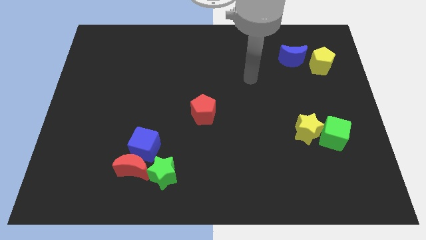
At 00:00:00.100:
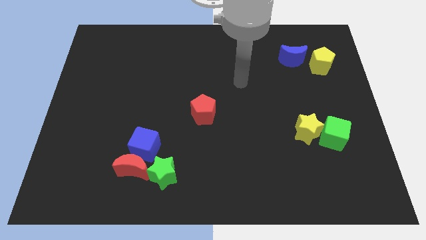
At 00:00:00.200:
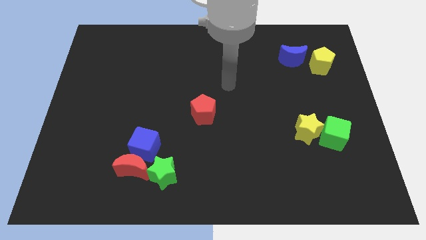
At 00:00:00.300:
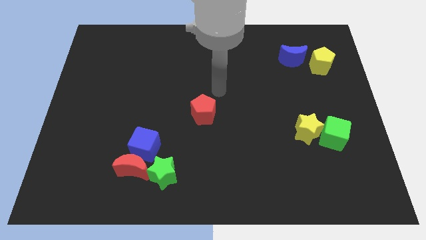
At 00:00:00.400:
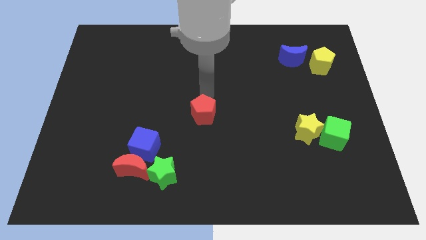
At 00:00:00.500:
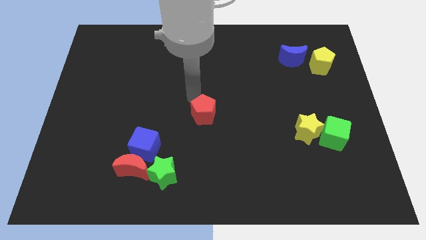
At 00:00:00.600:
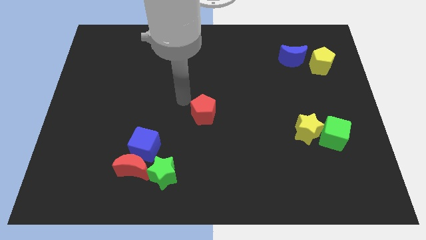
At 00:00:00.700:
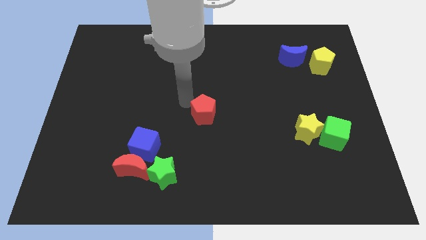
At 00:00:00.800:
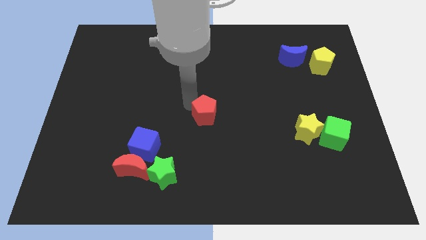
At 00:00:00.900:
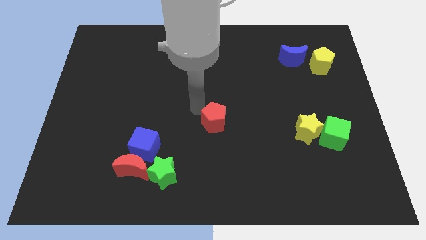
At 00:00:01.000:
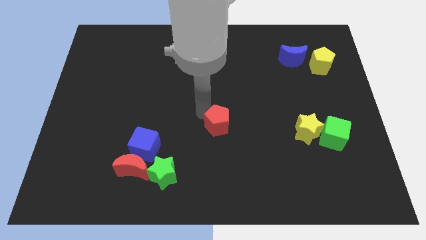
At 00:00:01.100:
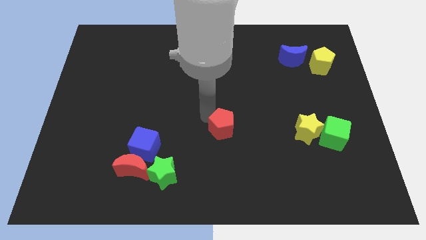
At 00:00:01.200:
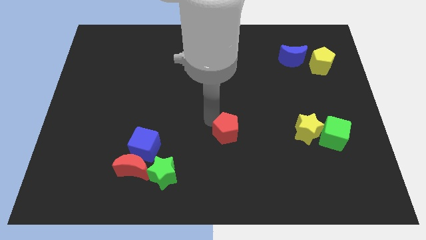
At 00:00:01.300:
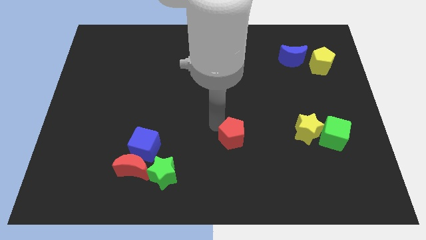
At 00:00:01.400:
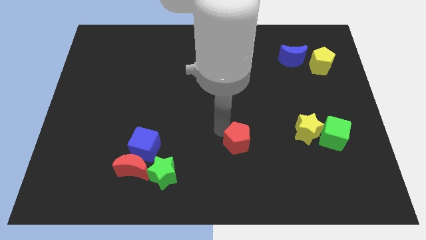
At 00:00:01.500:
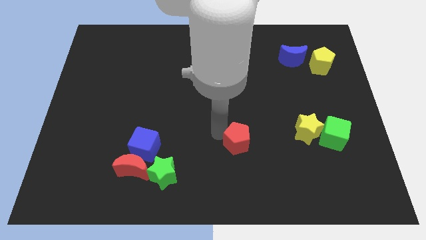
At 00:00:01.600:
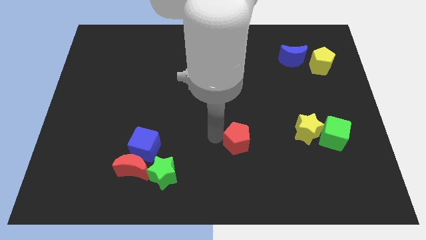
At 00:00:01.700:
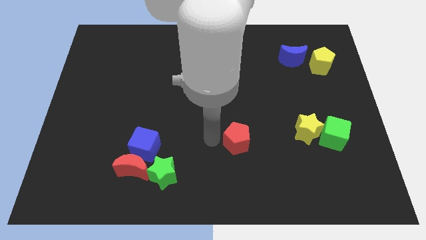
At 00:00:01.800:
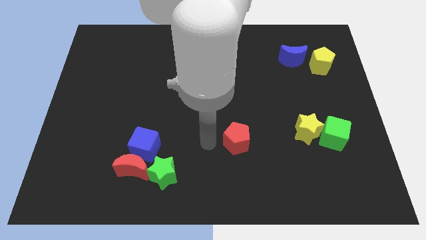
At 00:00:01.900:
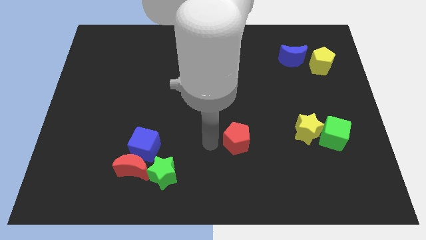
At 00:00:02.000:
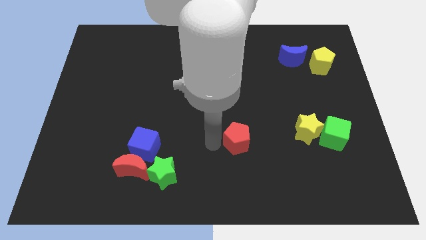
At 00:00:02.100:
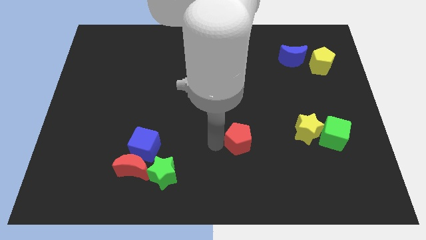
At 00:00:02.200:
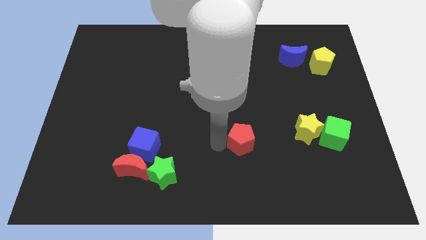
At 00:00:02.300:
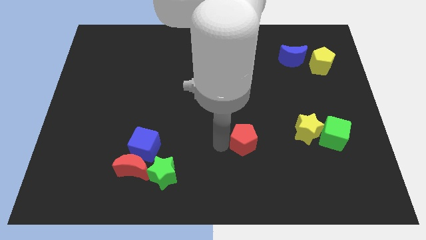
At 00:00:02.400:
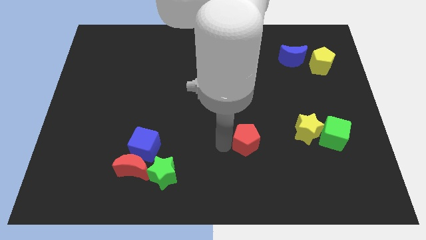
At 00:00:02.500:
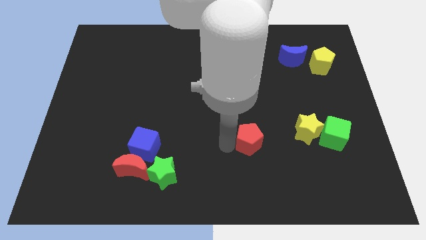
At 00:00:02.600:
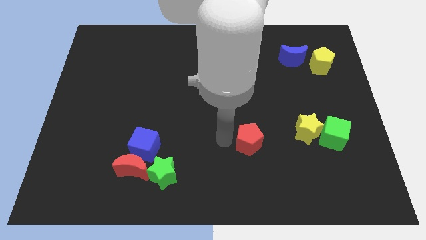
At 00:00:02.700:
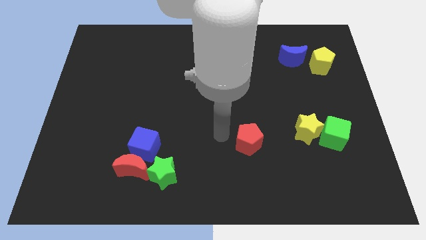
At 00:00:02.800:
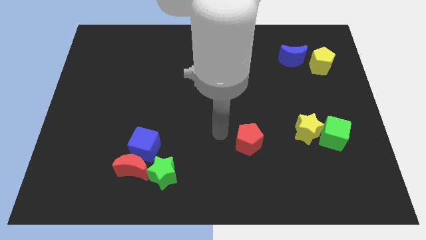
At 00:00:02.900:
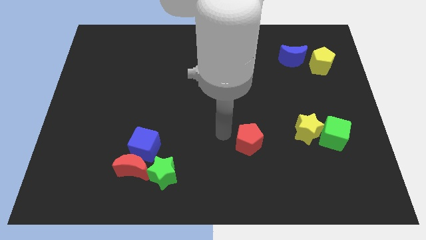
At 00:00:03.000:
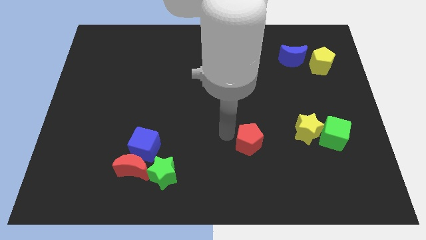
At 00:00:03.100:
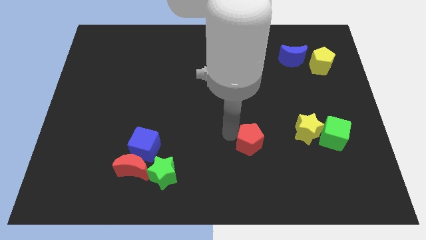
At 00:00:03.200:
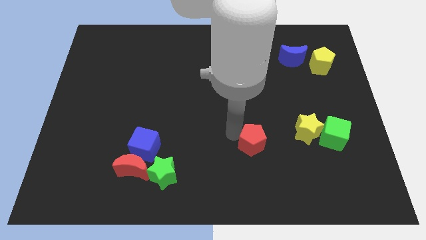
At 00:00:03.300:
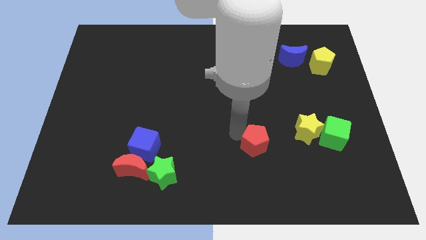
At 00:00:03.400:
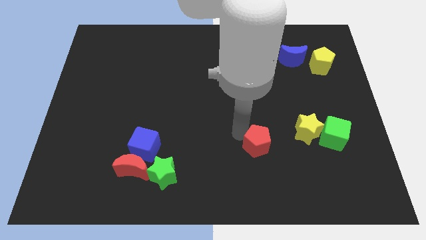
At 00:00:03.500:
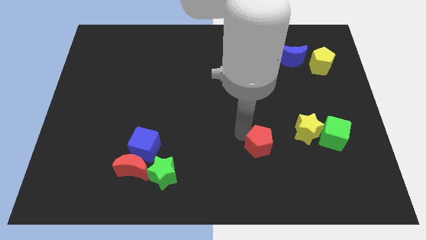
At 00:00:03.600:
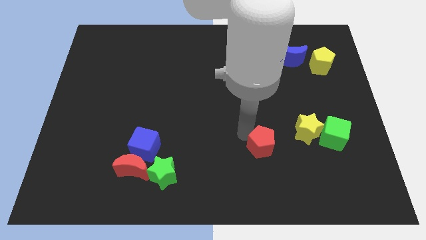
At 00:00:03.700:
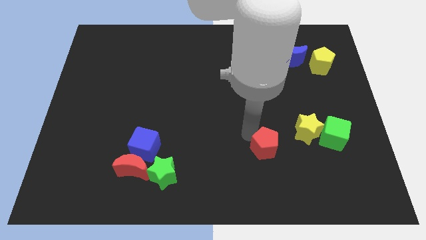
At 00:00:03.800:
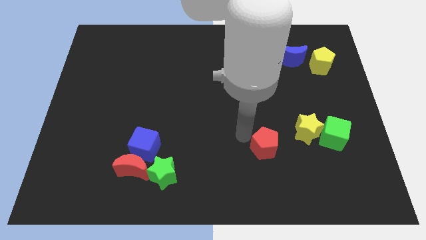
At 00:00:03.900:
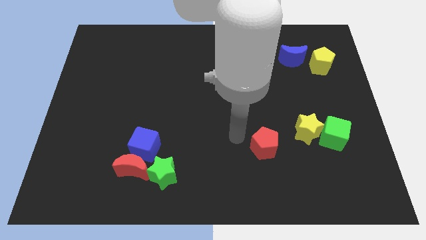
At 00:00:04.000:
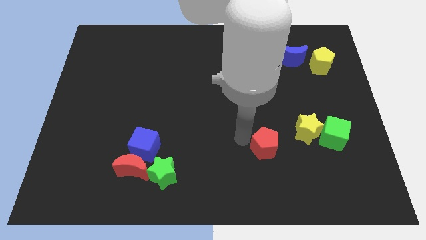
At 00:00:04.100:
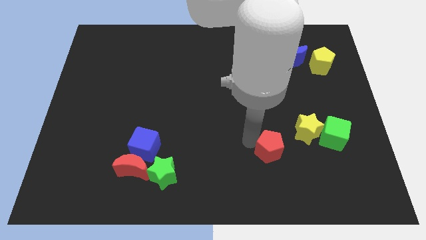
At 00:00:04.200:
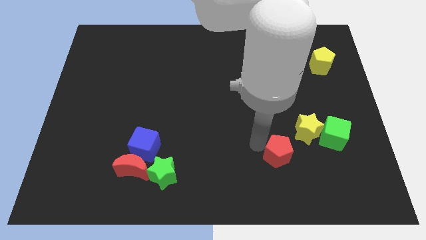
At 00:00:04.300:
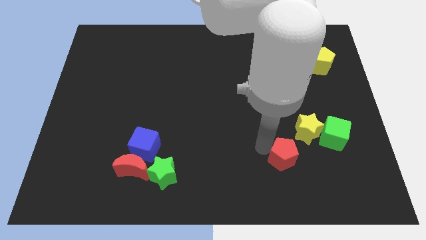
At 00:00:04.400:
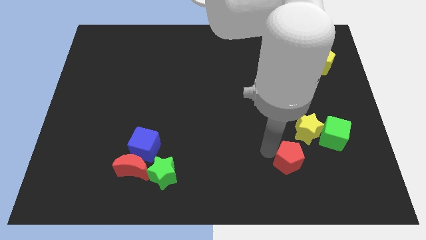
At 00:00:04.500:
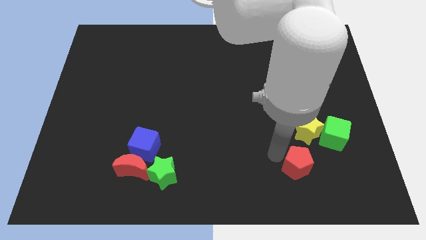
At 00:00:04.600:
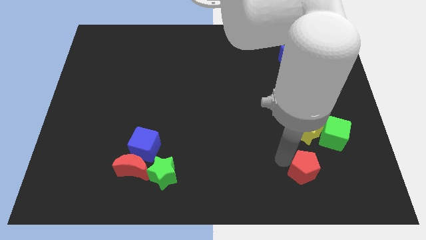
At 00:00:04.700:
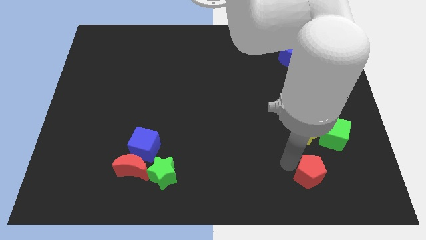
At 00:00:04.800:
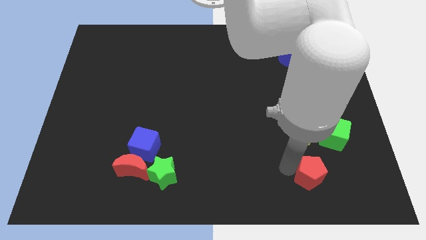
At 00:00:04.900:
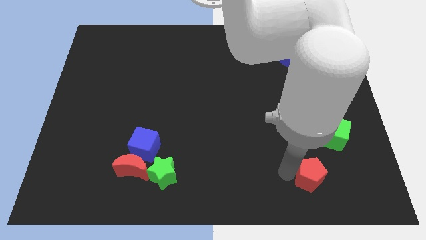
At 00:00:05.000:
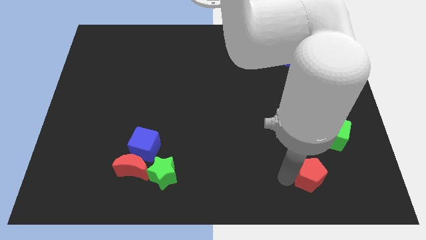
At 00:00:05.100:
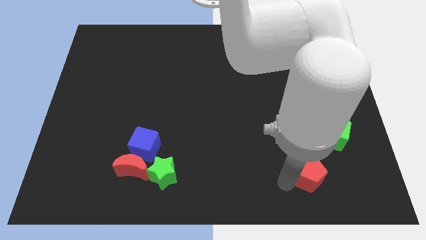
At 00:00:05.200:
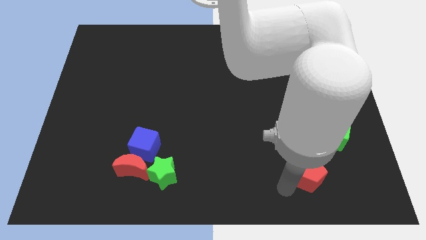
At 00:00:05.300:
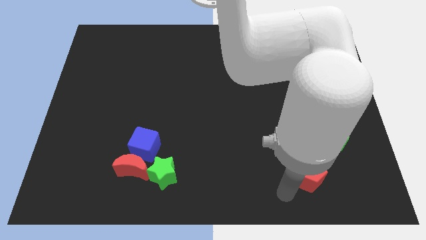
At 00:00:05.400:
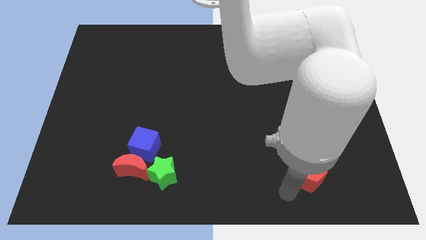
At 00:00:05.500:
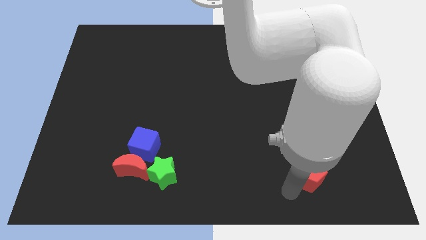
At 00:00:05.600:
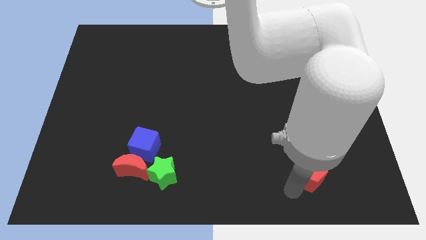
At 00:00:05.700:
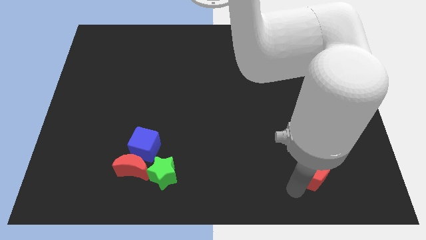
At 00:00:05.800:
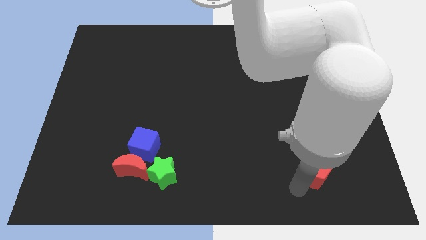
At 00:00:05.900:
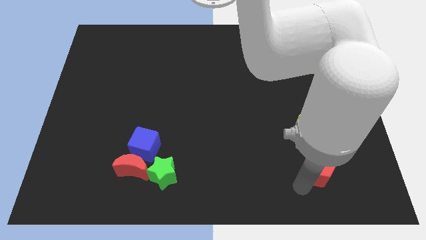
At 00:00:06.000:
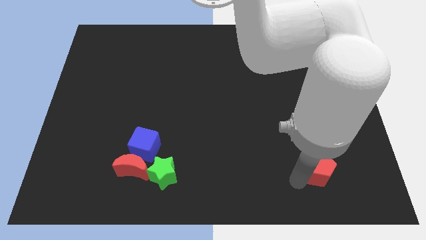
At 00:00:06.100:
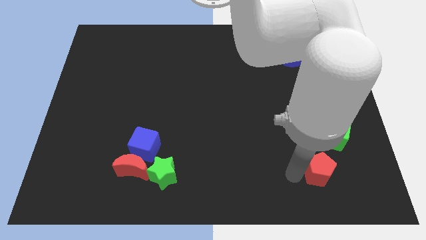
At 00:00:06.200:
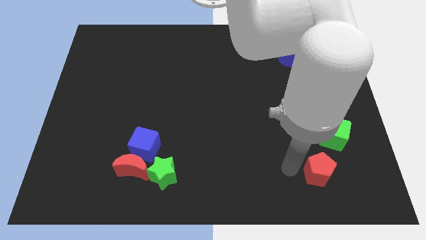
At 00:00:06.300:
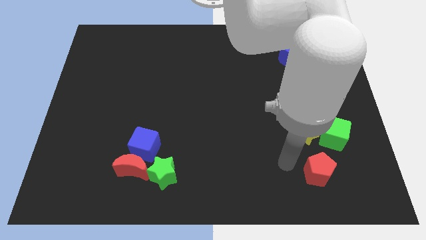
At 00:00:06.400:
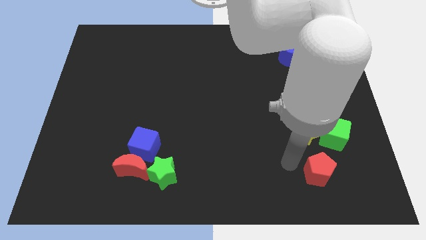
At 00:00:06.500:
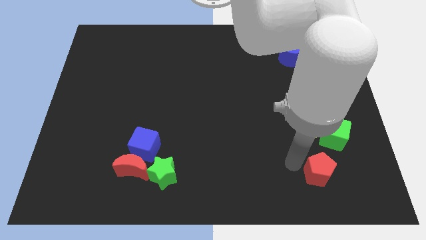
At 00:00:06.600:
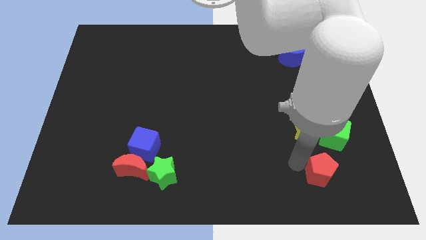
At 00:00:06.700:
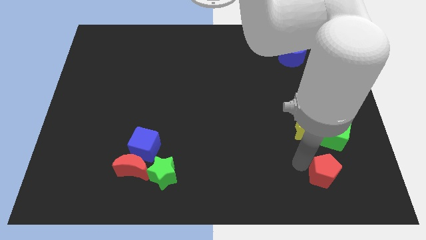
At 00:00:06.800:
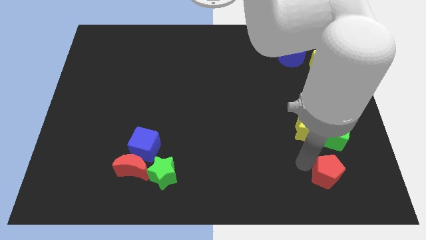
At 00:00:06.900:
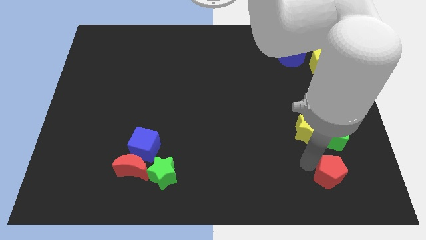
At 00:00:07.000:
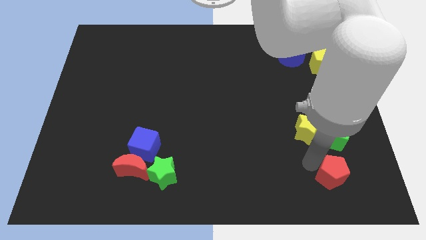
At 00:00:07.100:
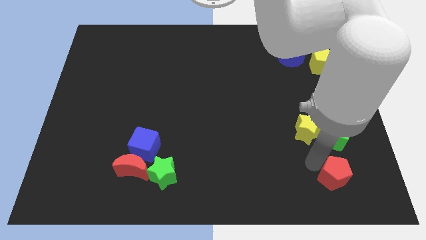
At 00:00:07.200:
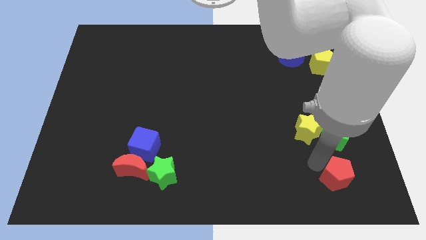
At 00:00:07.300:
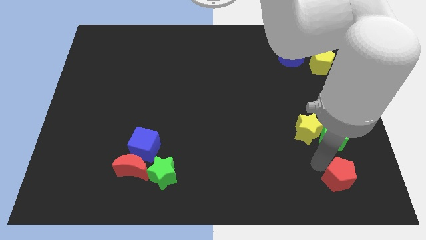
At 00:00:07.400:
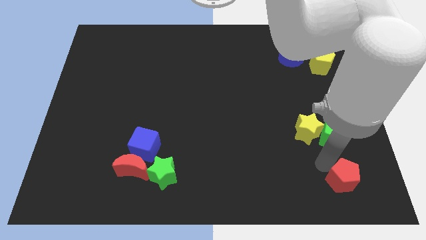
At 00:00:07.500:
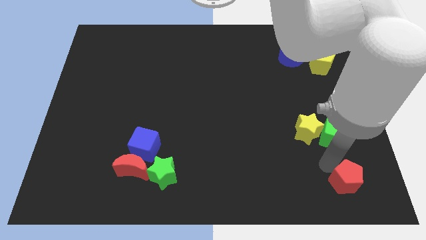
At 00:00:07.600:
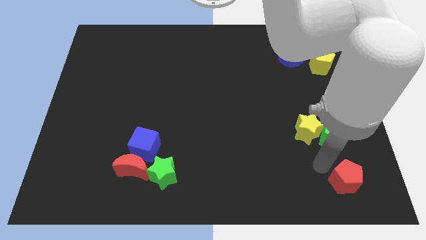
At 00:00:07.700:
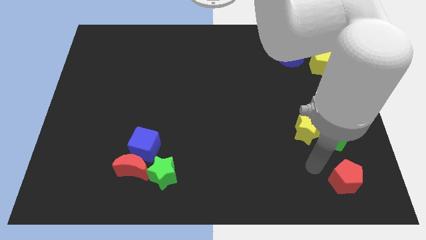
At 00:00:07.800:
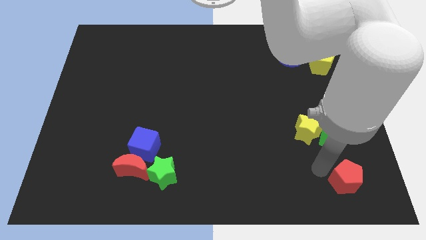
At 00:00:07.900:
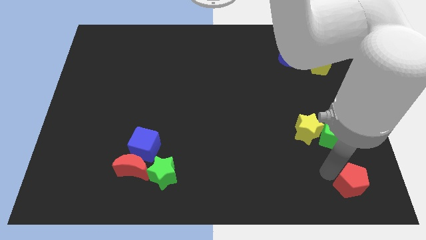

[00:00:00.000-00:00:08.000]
put the red pentagon to the bottom right corner
